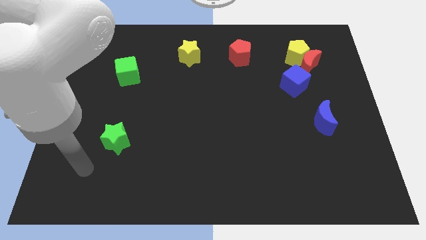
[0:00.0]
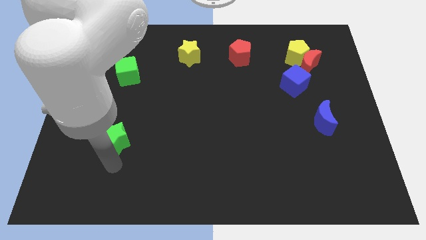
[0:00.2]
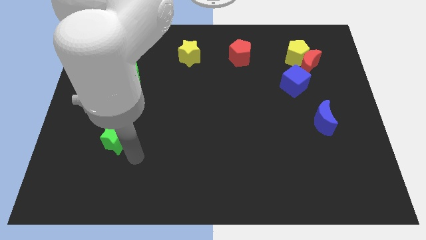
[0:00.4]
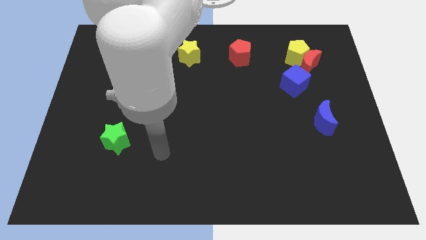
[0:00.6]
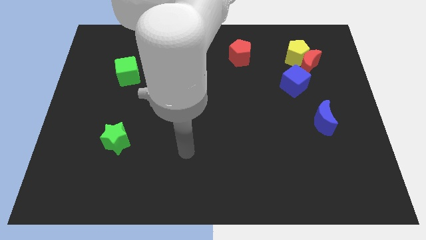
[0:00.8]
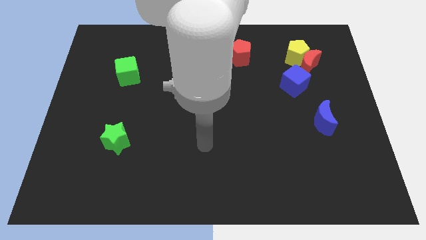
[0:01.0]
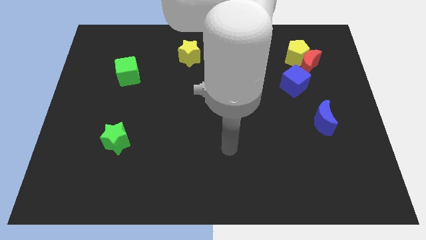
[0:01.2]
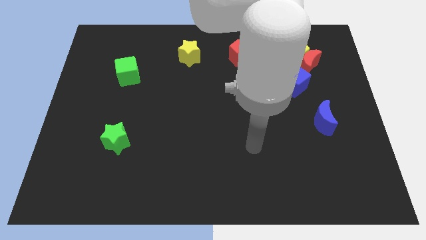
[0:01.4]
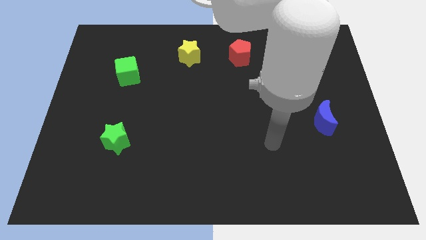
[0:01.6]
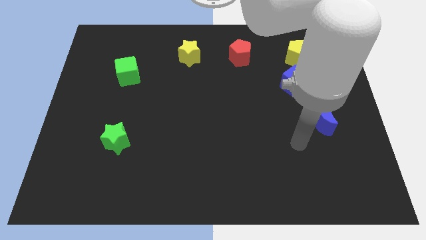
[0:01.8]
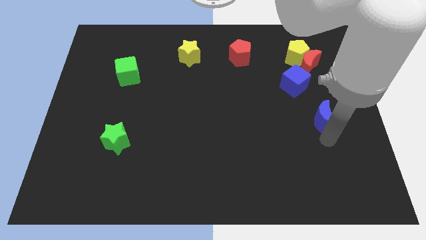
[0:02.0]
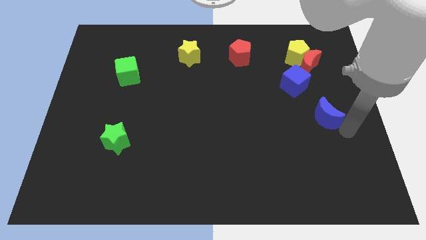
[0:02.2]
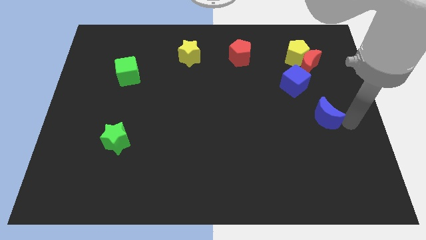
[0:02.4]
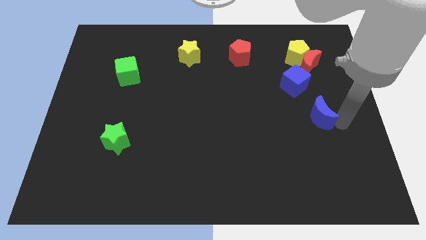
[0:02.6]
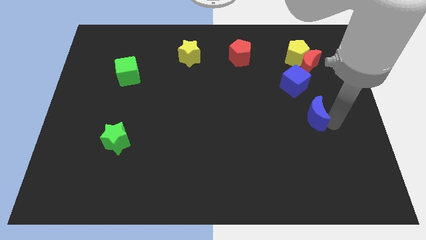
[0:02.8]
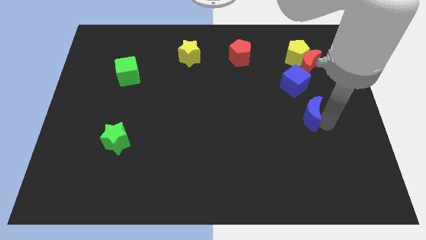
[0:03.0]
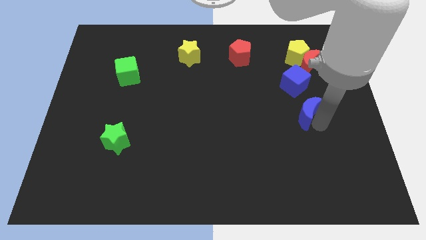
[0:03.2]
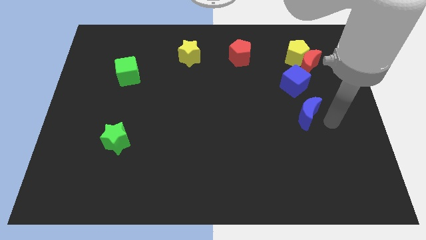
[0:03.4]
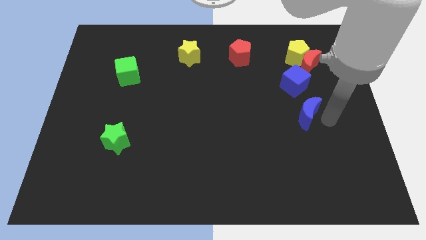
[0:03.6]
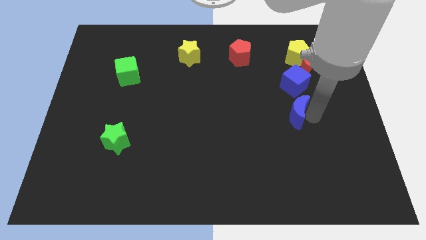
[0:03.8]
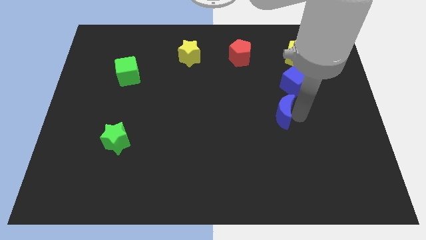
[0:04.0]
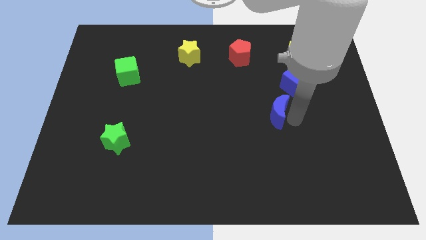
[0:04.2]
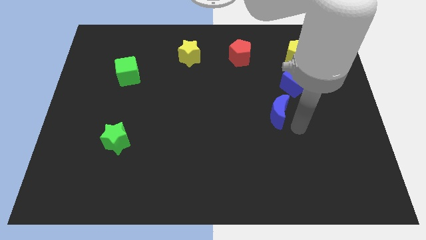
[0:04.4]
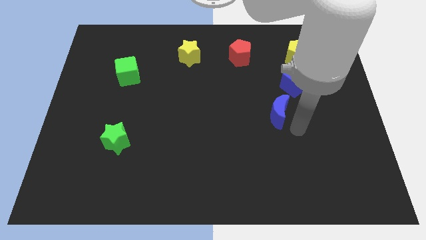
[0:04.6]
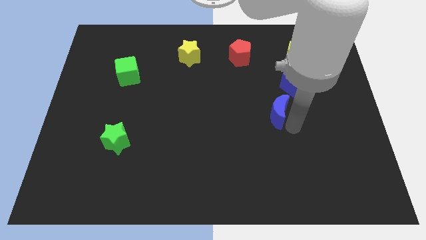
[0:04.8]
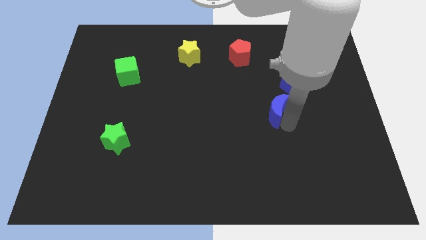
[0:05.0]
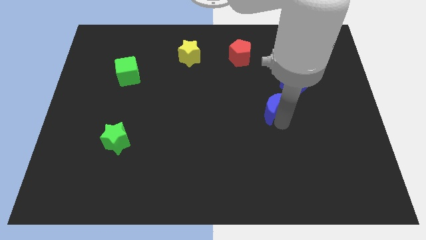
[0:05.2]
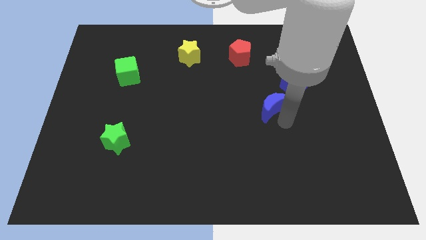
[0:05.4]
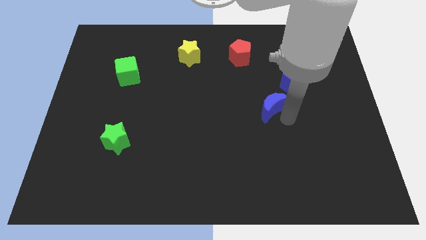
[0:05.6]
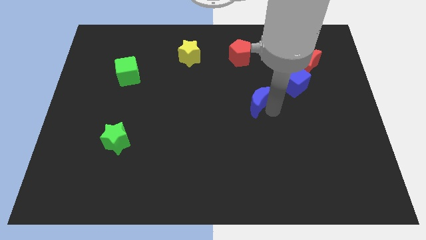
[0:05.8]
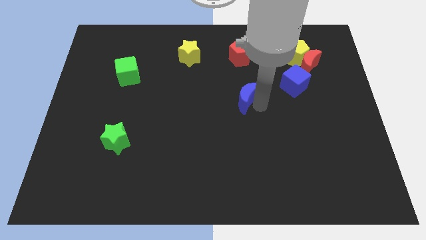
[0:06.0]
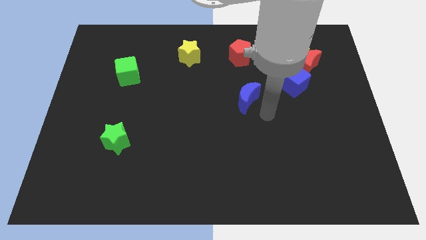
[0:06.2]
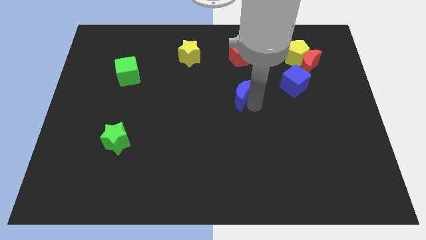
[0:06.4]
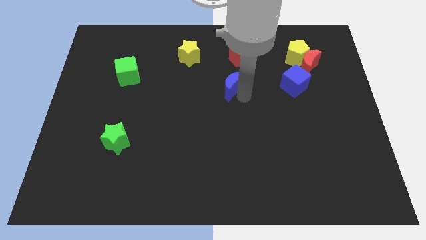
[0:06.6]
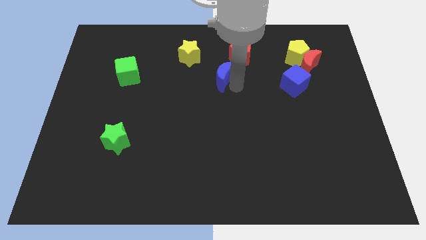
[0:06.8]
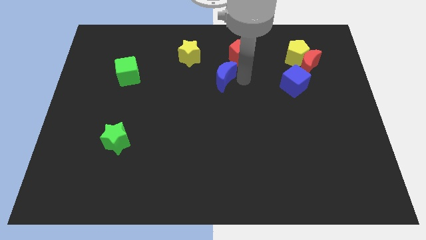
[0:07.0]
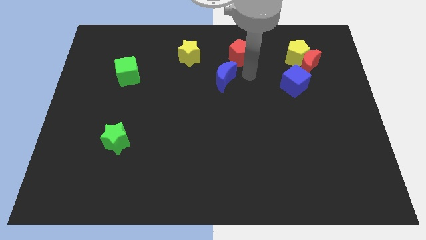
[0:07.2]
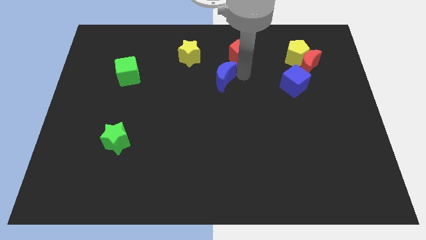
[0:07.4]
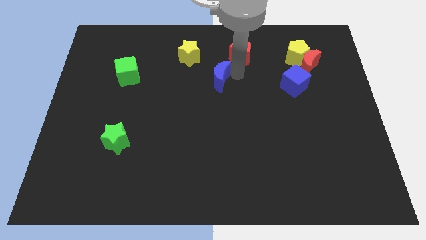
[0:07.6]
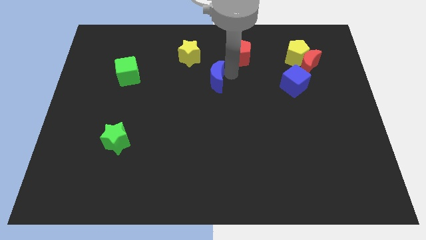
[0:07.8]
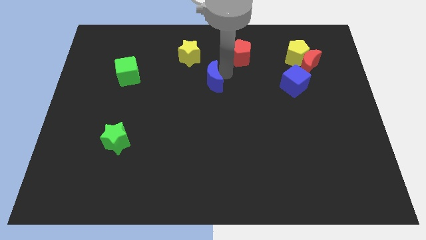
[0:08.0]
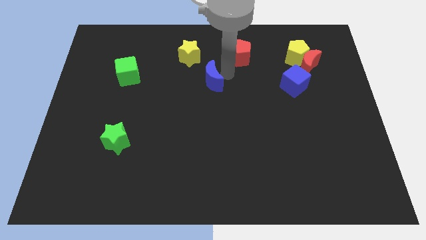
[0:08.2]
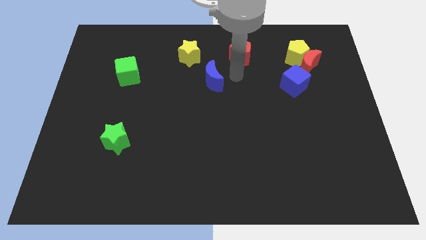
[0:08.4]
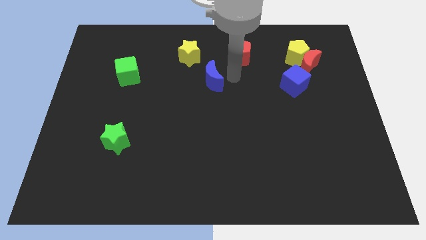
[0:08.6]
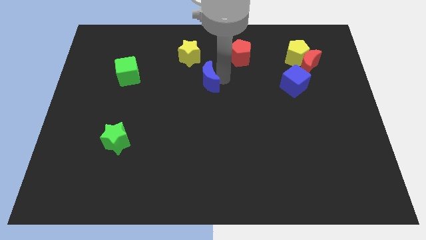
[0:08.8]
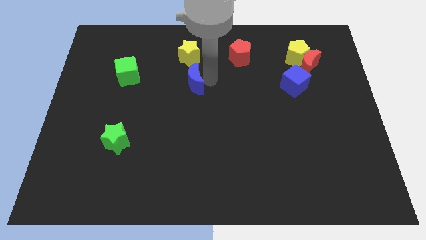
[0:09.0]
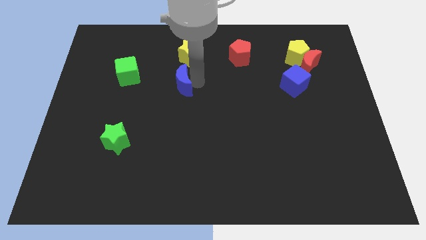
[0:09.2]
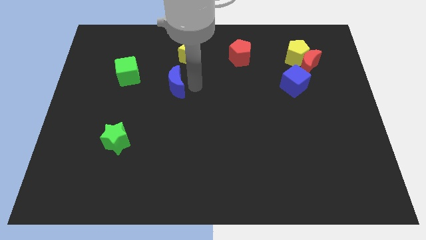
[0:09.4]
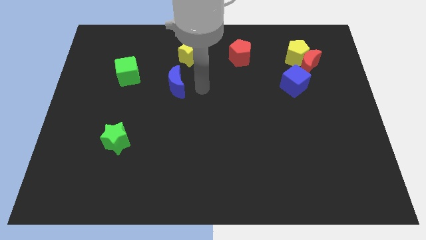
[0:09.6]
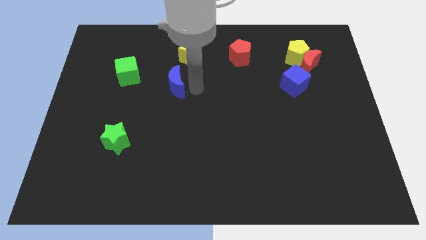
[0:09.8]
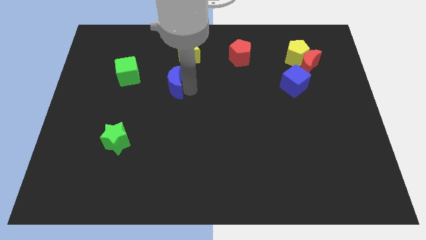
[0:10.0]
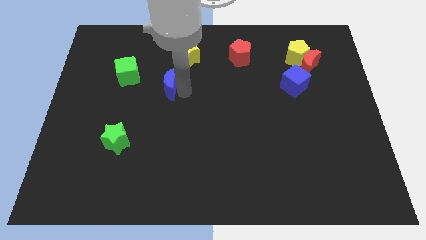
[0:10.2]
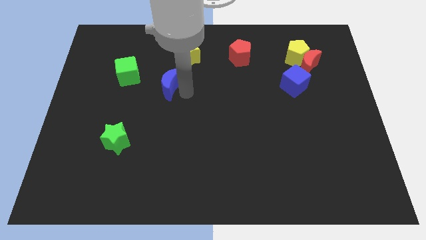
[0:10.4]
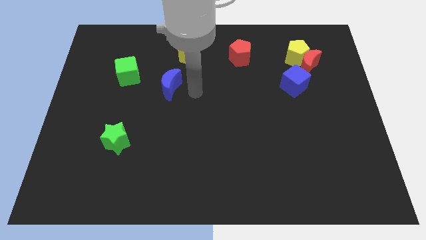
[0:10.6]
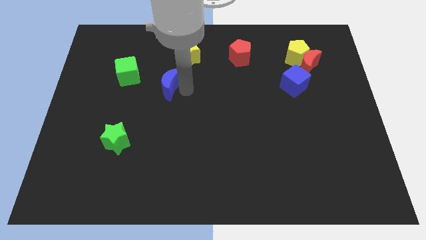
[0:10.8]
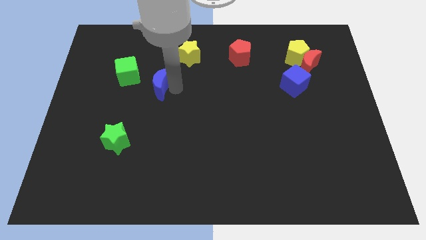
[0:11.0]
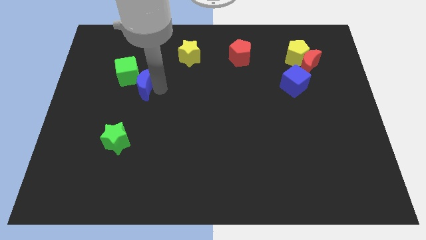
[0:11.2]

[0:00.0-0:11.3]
push the blue moon to the green cube
